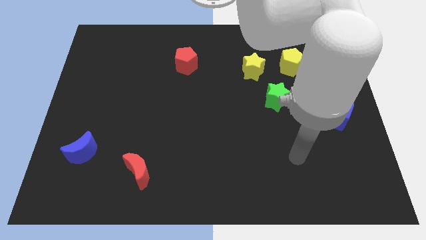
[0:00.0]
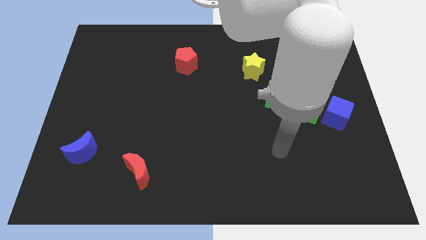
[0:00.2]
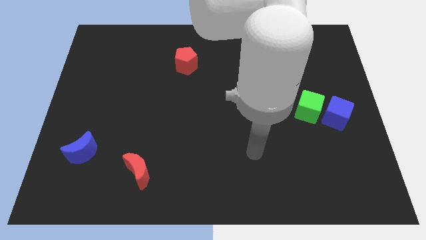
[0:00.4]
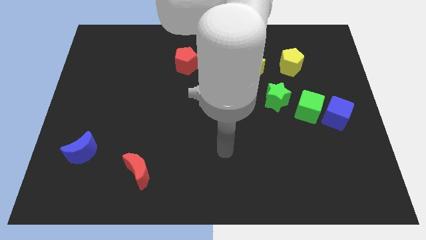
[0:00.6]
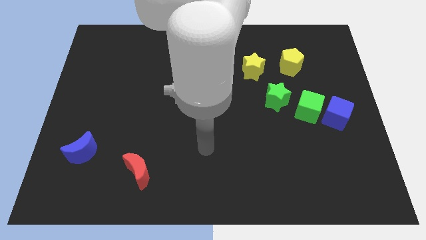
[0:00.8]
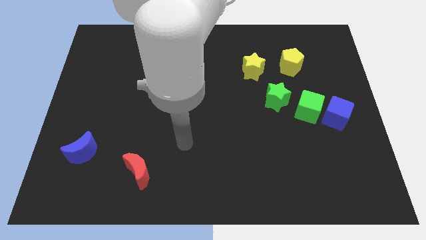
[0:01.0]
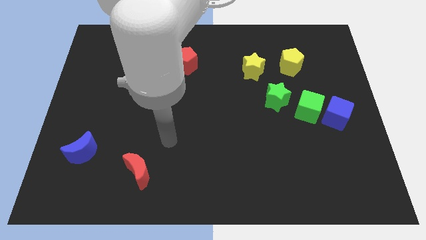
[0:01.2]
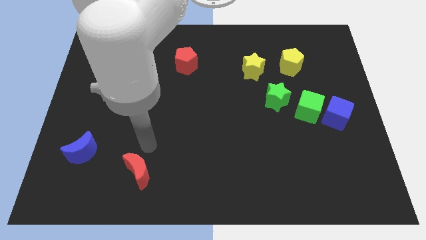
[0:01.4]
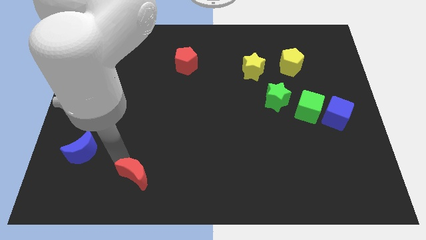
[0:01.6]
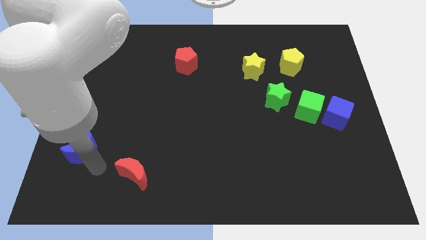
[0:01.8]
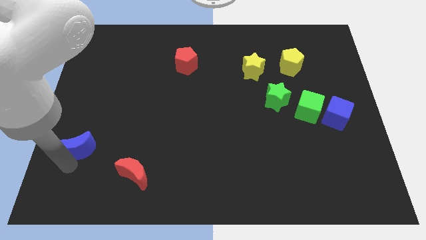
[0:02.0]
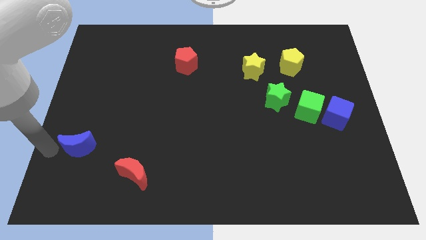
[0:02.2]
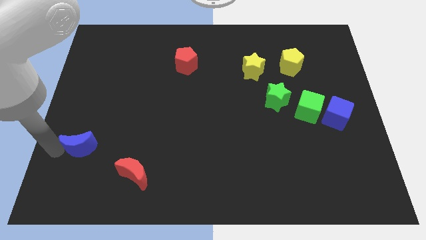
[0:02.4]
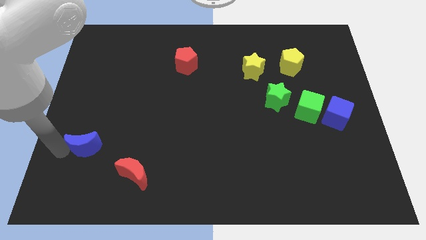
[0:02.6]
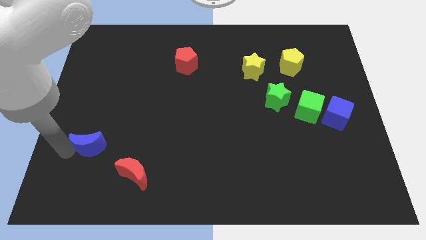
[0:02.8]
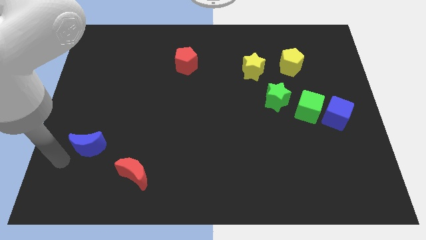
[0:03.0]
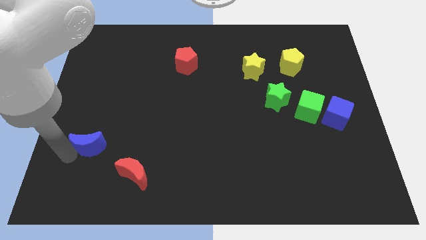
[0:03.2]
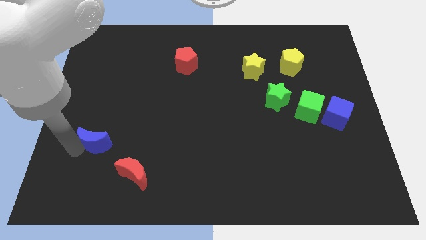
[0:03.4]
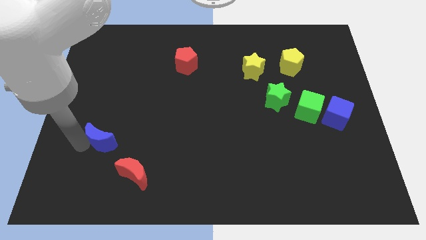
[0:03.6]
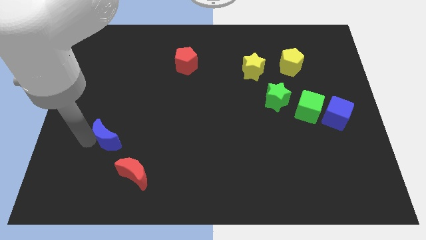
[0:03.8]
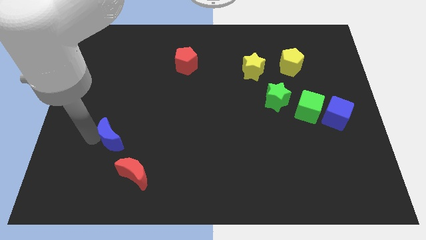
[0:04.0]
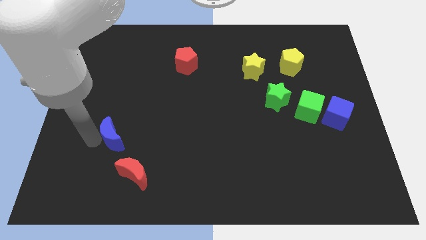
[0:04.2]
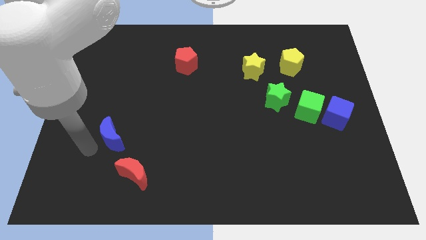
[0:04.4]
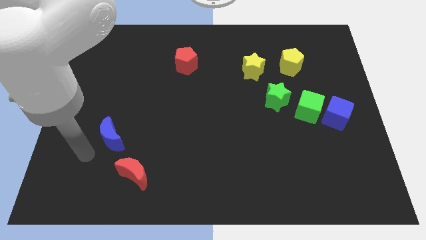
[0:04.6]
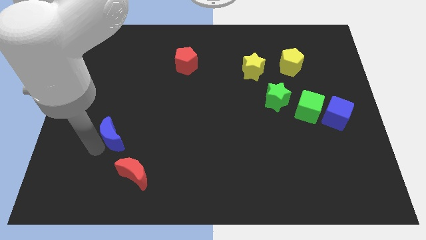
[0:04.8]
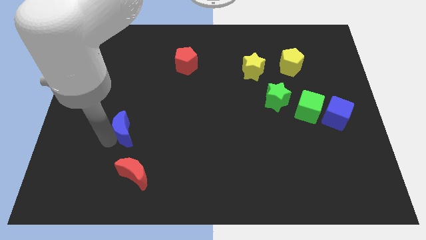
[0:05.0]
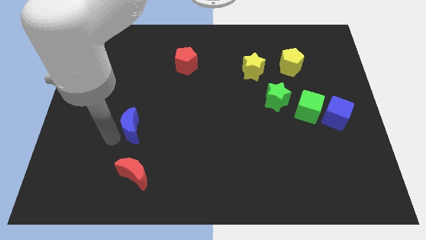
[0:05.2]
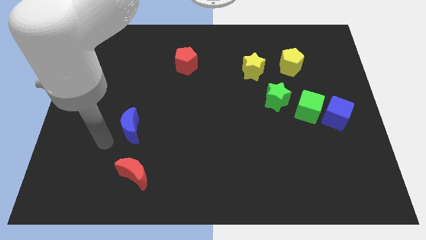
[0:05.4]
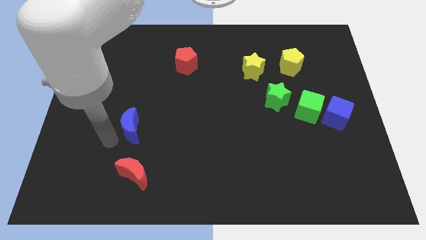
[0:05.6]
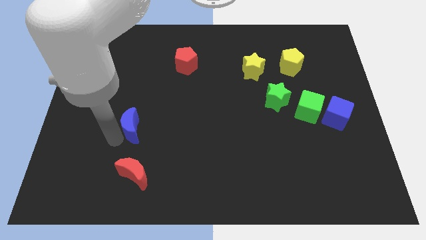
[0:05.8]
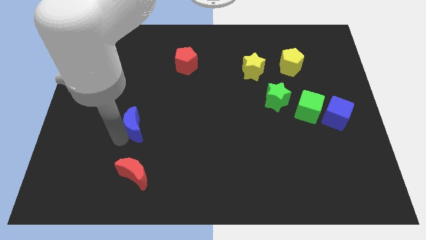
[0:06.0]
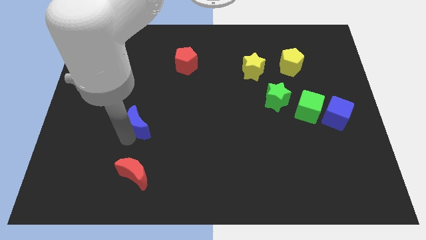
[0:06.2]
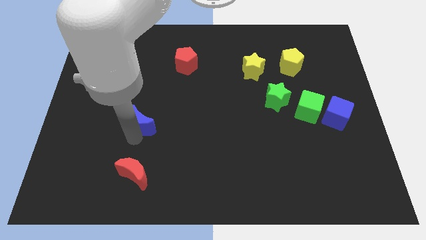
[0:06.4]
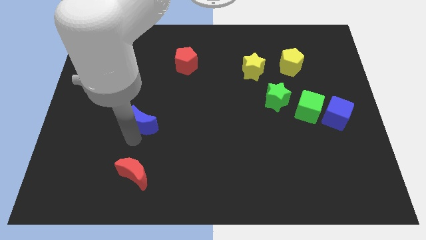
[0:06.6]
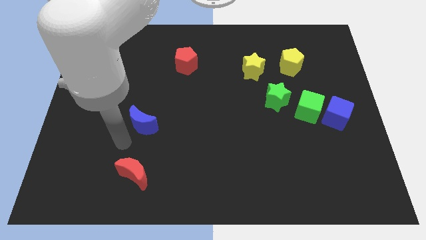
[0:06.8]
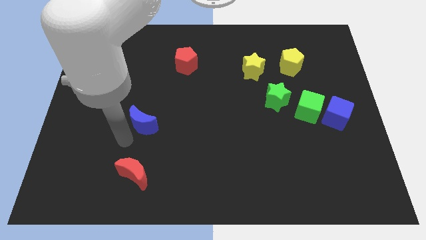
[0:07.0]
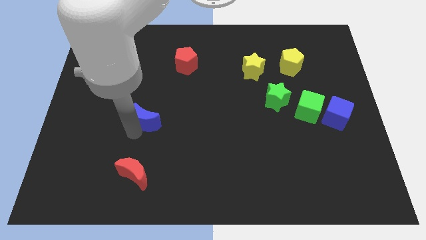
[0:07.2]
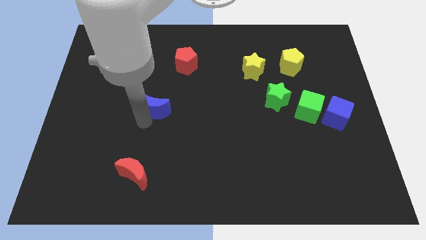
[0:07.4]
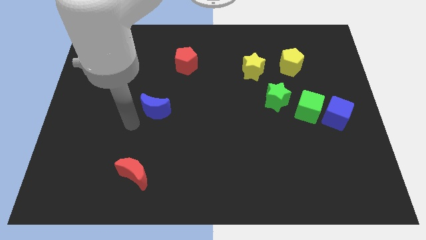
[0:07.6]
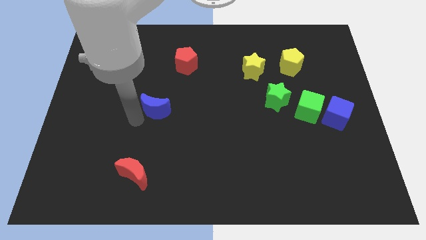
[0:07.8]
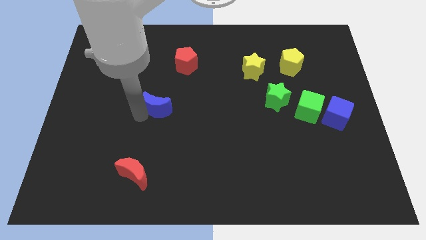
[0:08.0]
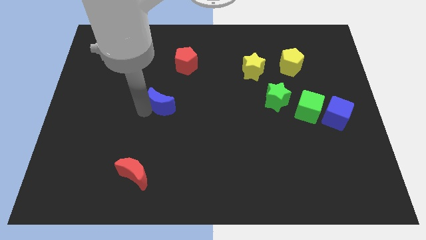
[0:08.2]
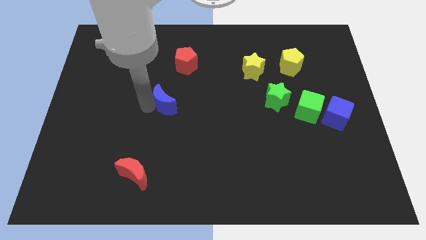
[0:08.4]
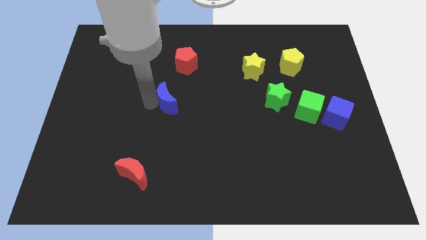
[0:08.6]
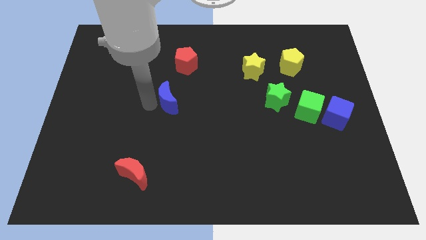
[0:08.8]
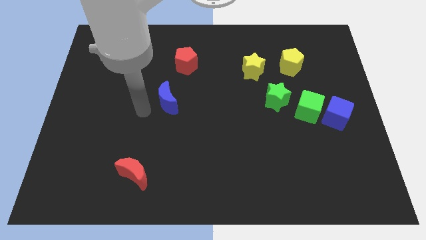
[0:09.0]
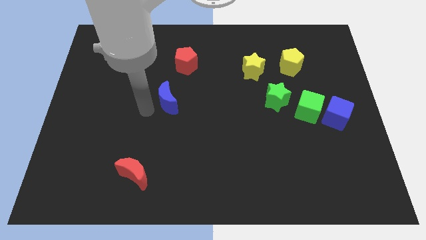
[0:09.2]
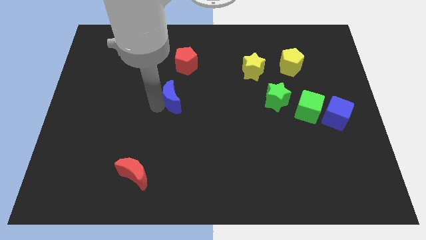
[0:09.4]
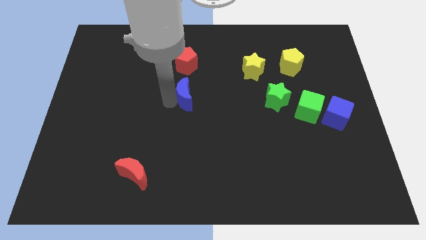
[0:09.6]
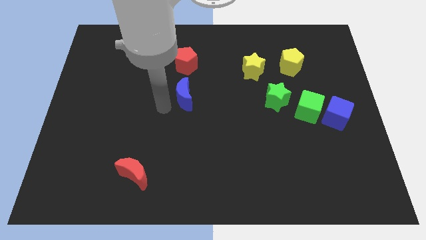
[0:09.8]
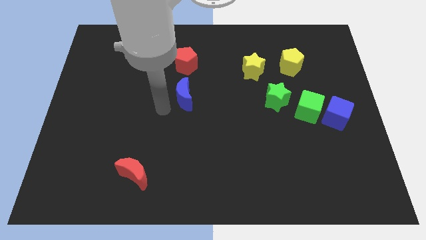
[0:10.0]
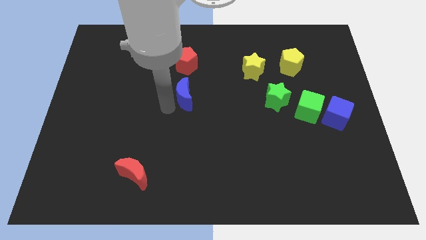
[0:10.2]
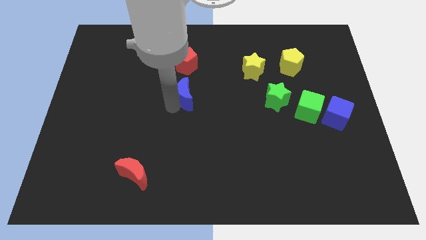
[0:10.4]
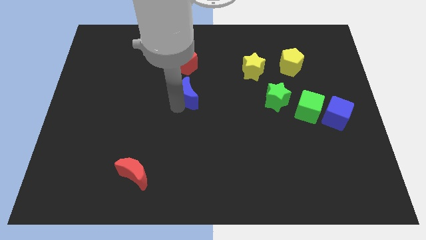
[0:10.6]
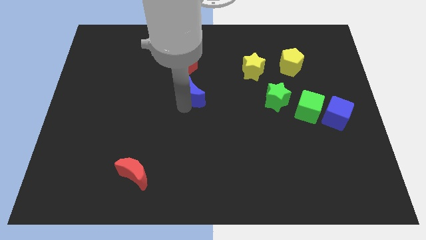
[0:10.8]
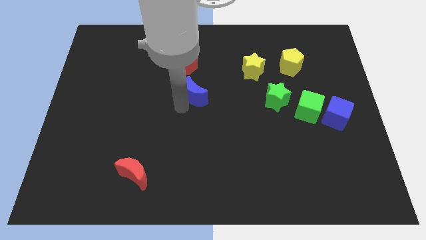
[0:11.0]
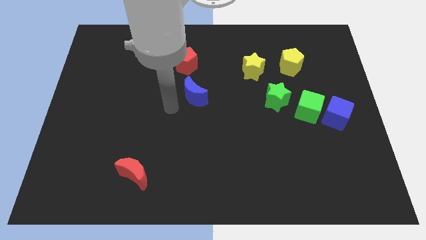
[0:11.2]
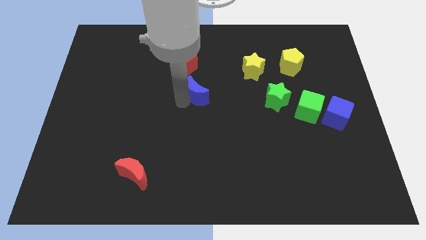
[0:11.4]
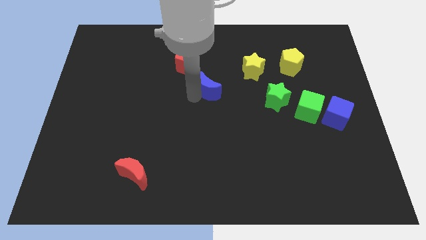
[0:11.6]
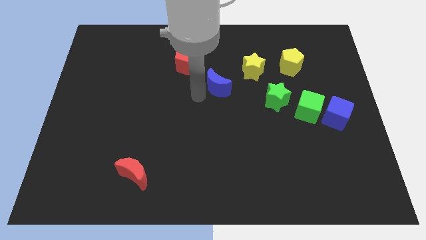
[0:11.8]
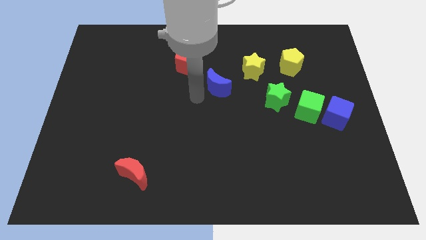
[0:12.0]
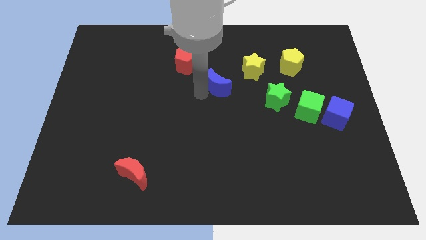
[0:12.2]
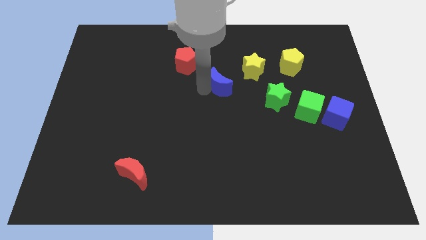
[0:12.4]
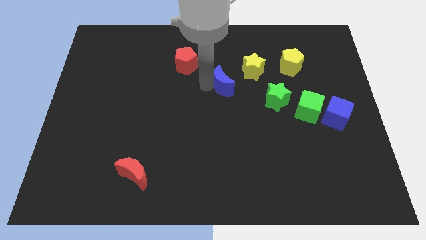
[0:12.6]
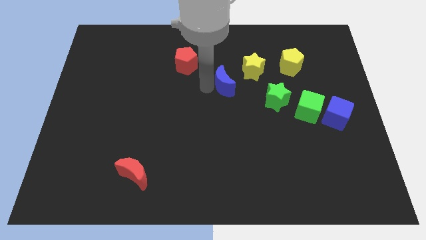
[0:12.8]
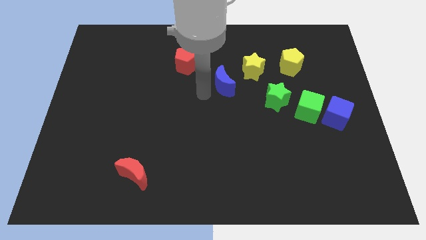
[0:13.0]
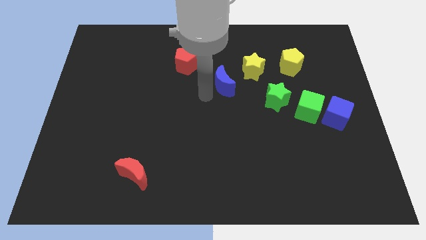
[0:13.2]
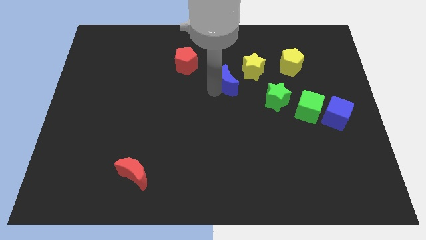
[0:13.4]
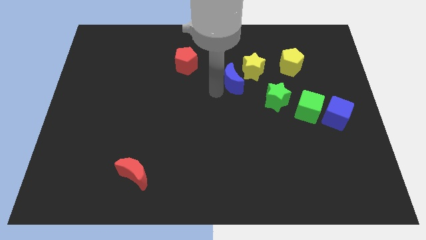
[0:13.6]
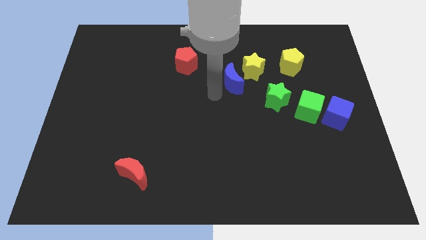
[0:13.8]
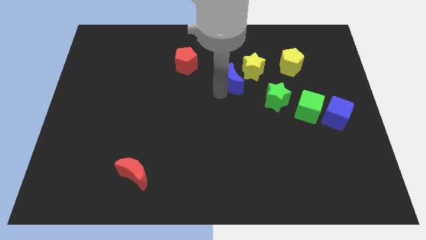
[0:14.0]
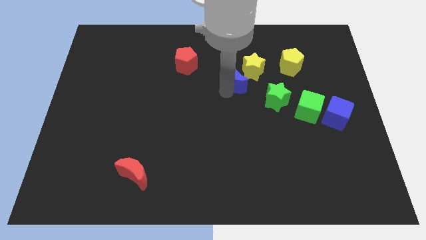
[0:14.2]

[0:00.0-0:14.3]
move the blue moon next to the yellow star
